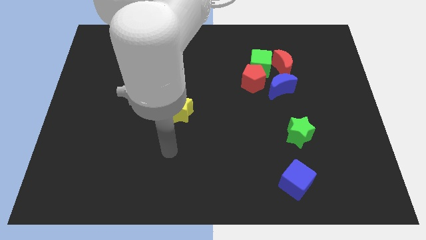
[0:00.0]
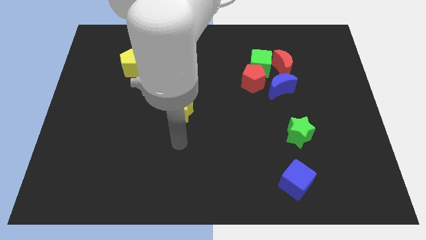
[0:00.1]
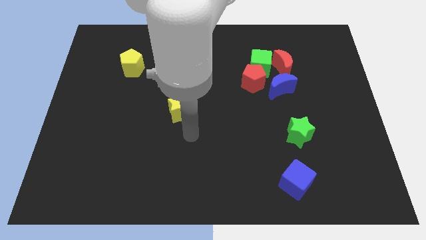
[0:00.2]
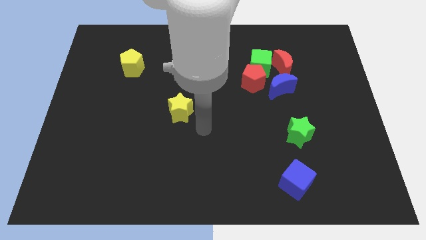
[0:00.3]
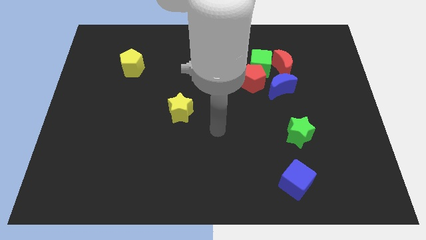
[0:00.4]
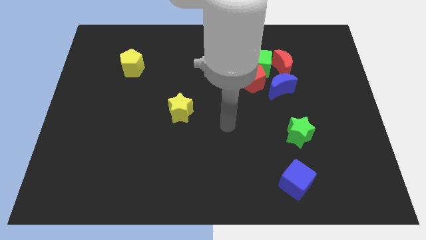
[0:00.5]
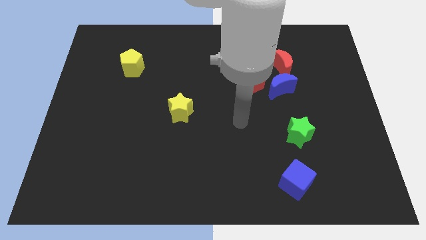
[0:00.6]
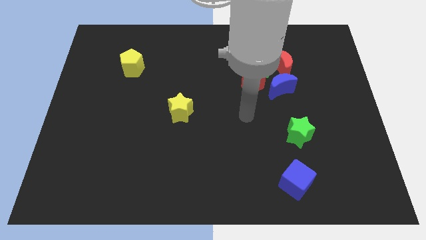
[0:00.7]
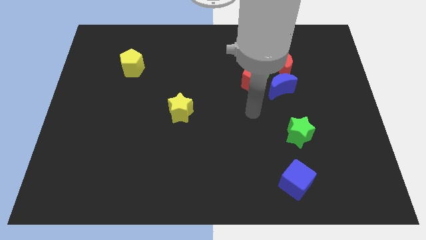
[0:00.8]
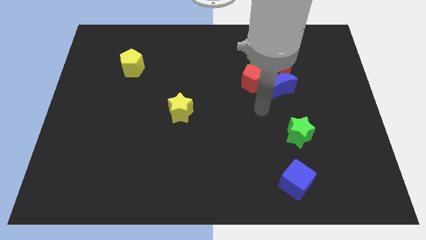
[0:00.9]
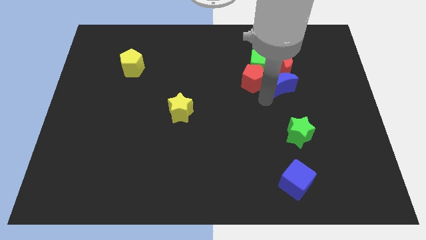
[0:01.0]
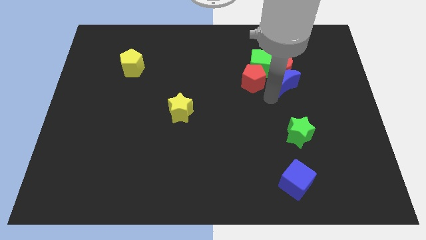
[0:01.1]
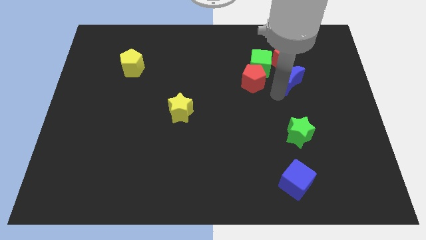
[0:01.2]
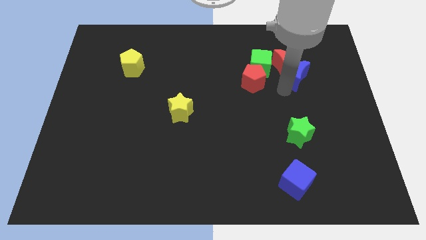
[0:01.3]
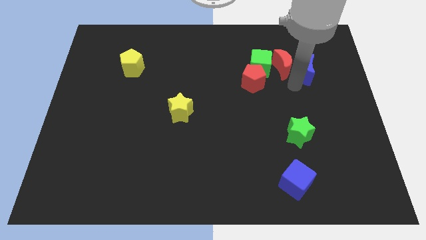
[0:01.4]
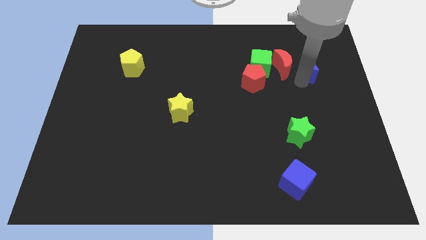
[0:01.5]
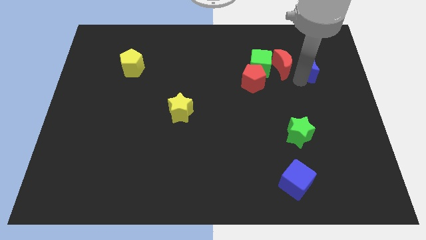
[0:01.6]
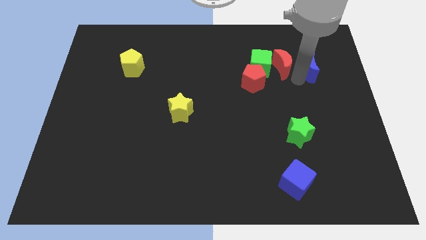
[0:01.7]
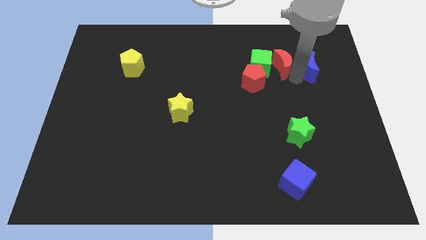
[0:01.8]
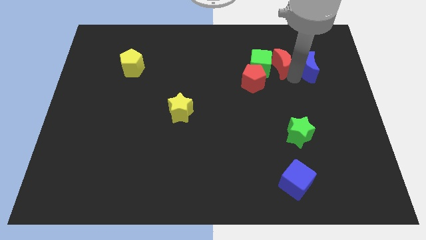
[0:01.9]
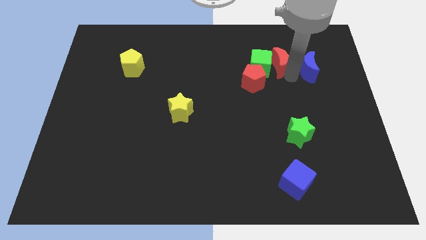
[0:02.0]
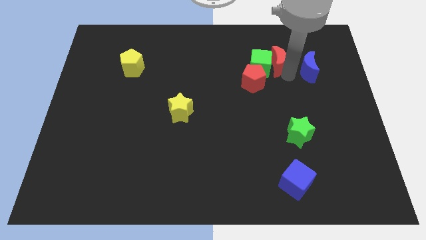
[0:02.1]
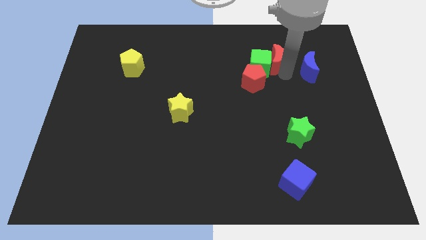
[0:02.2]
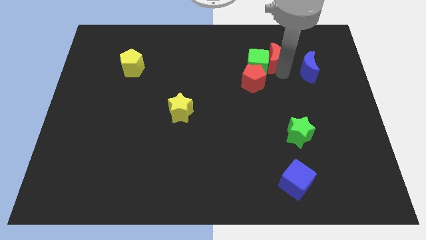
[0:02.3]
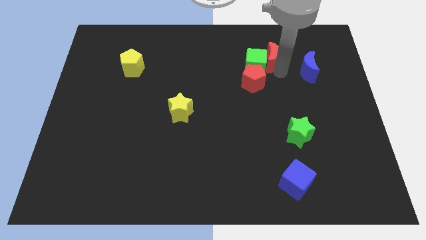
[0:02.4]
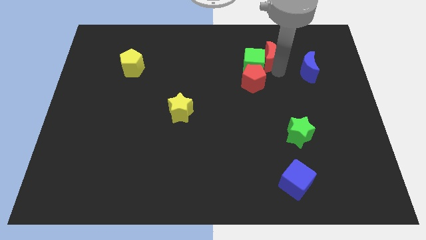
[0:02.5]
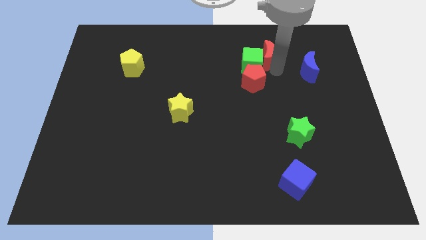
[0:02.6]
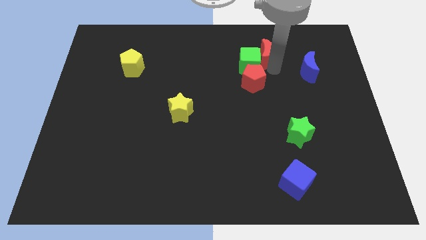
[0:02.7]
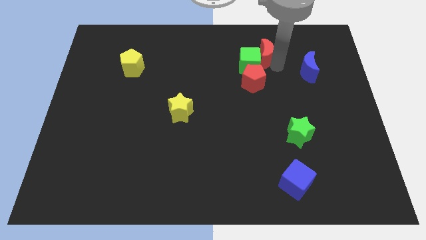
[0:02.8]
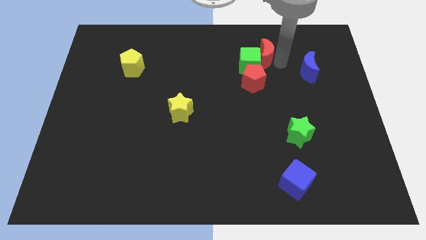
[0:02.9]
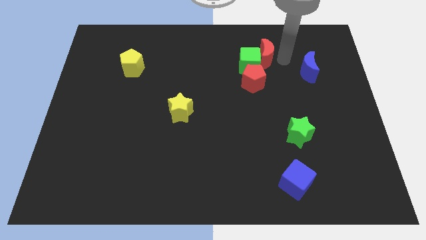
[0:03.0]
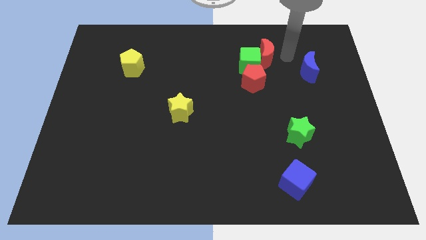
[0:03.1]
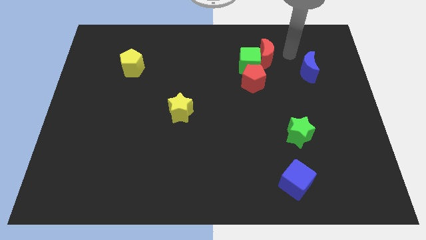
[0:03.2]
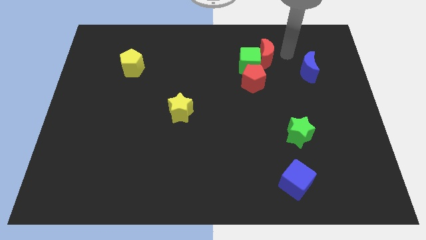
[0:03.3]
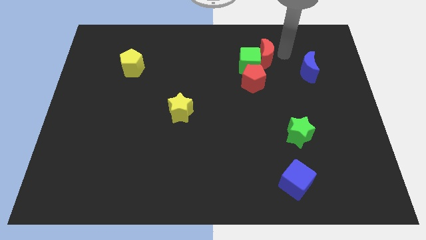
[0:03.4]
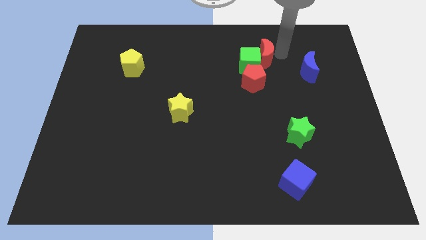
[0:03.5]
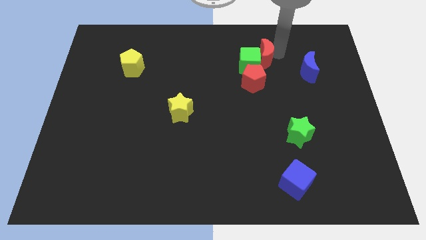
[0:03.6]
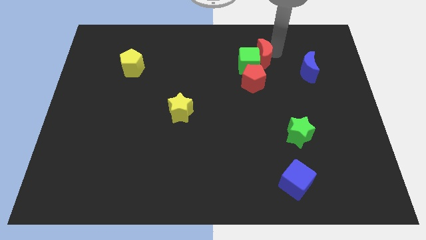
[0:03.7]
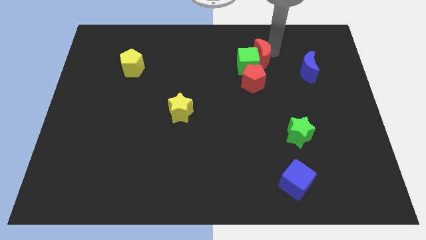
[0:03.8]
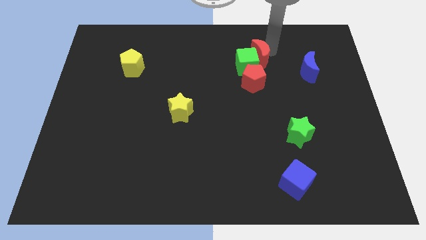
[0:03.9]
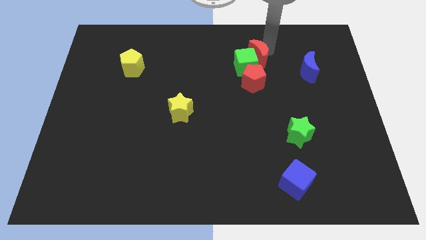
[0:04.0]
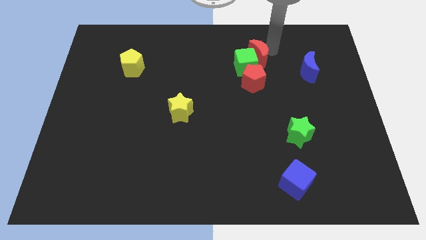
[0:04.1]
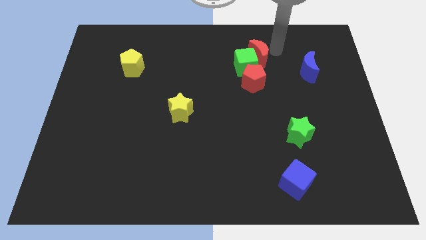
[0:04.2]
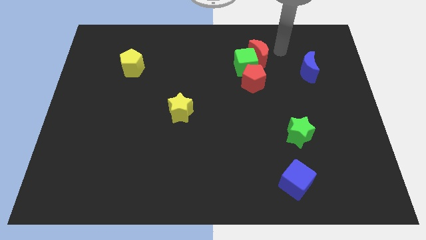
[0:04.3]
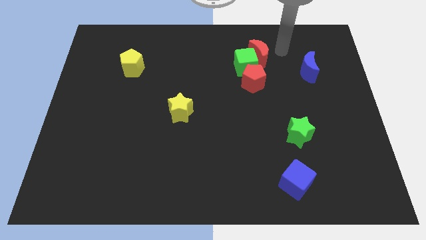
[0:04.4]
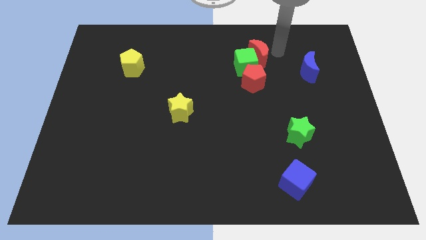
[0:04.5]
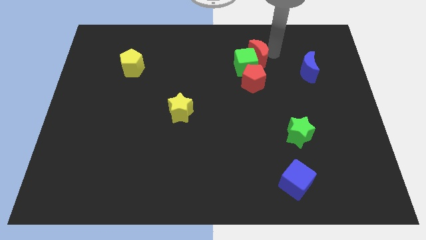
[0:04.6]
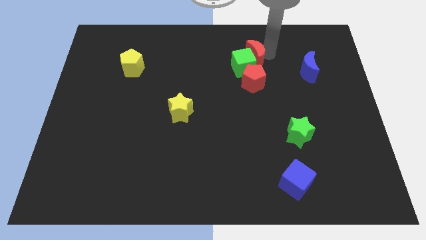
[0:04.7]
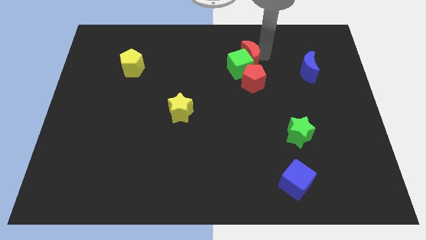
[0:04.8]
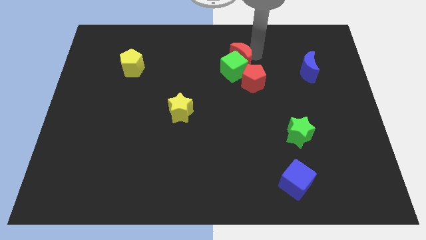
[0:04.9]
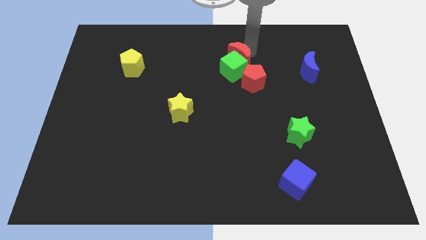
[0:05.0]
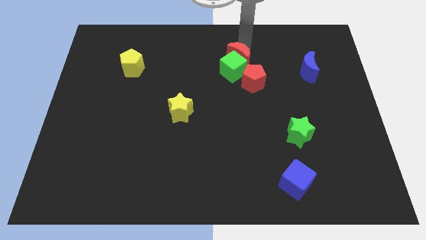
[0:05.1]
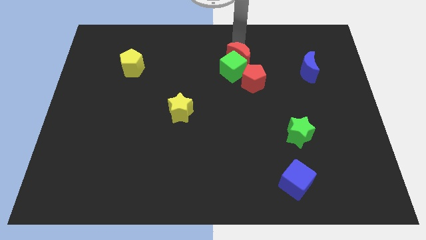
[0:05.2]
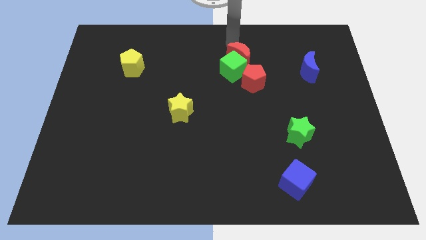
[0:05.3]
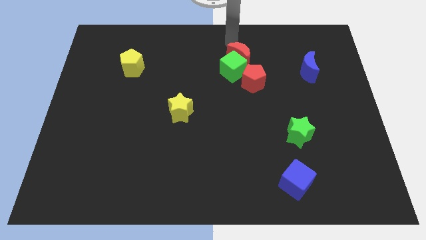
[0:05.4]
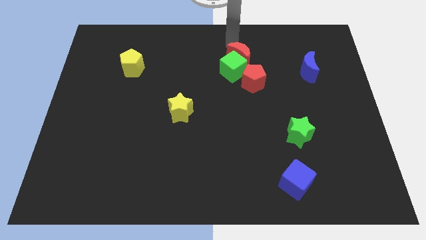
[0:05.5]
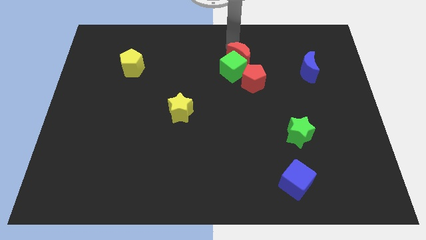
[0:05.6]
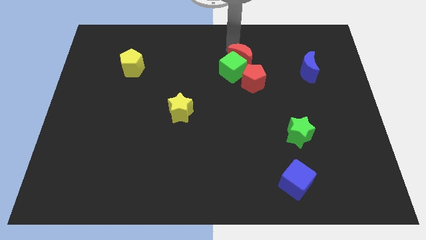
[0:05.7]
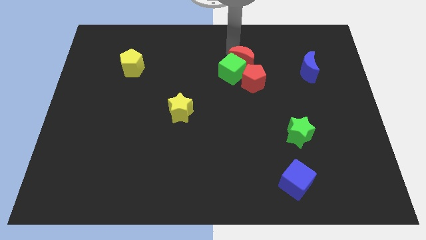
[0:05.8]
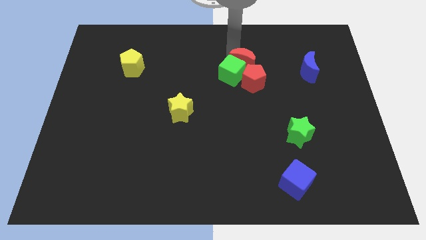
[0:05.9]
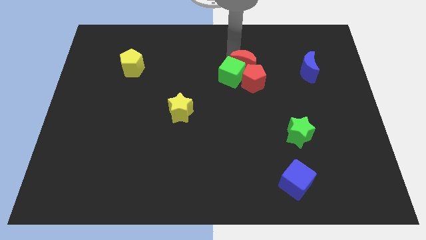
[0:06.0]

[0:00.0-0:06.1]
push the red moon to the red pentagon
